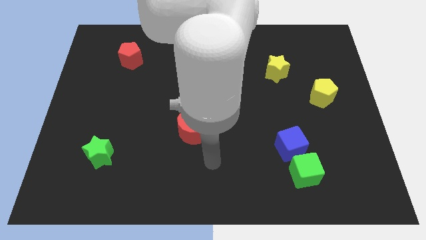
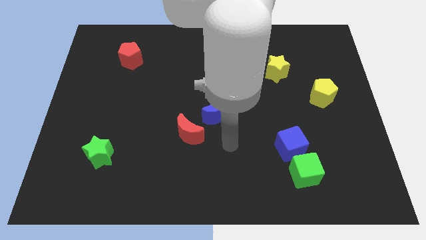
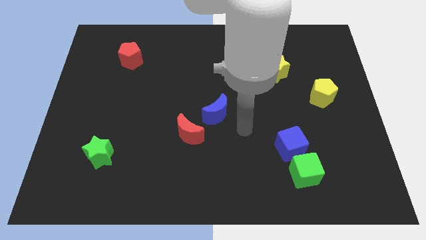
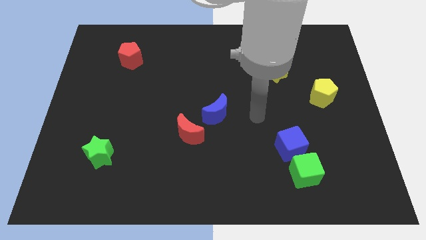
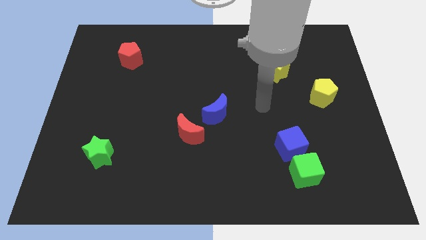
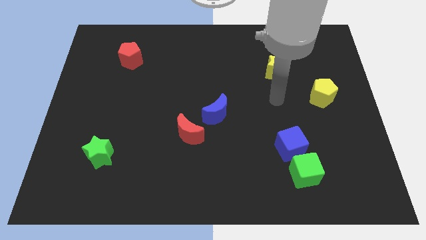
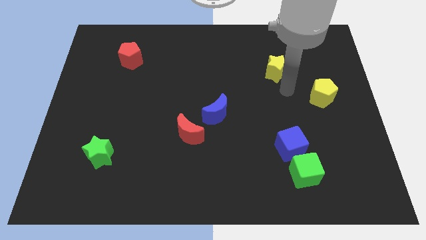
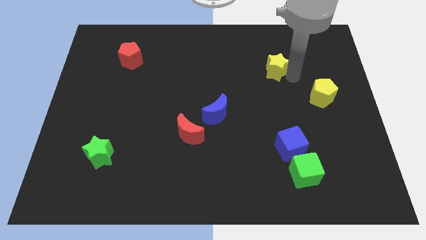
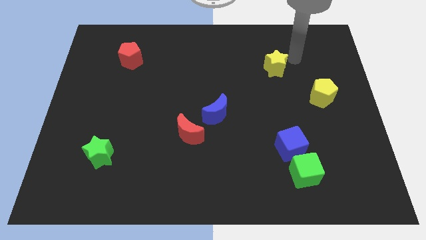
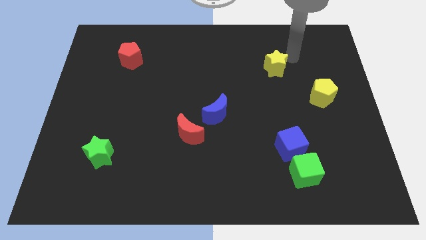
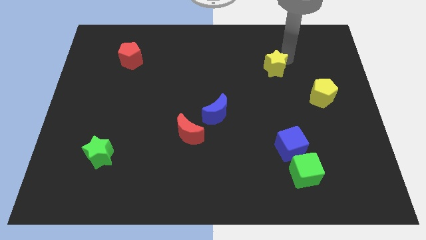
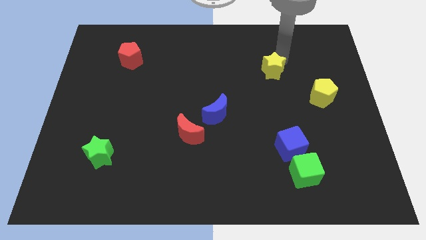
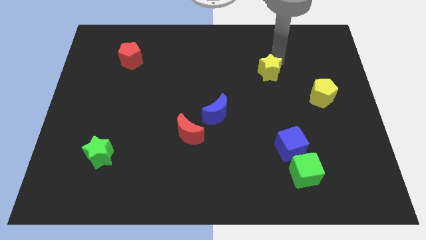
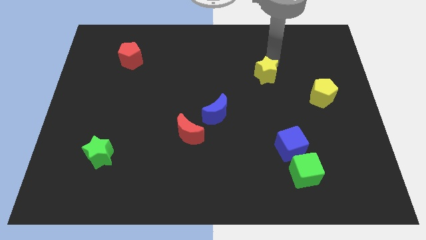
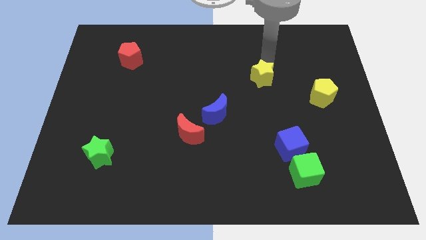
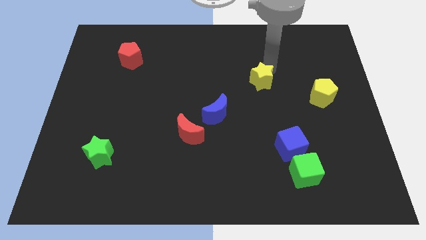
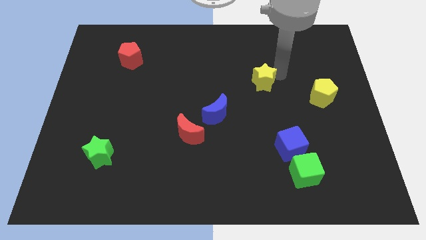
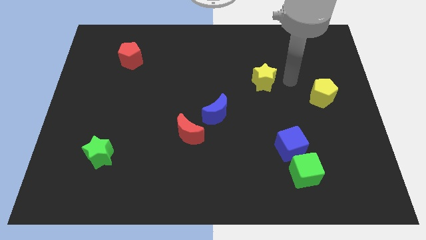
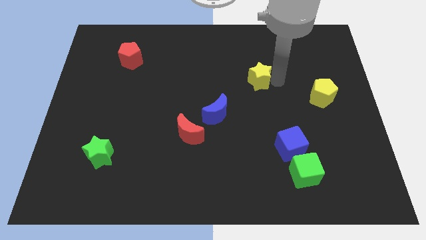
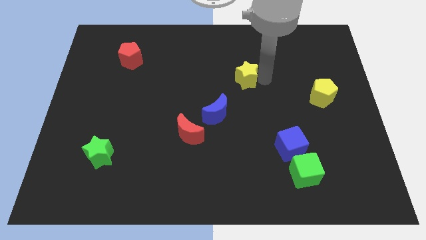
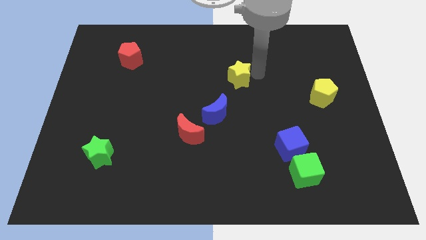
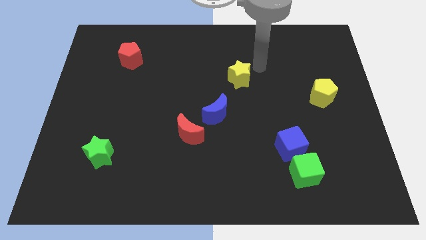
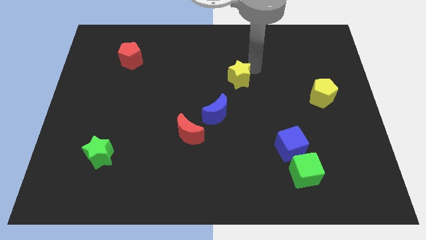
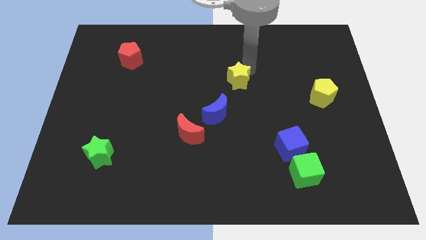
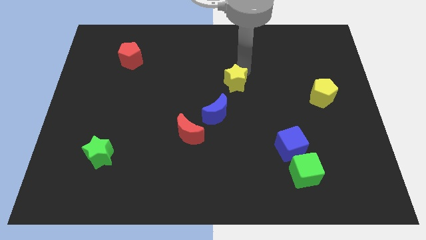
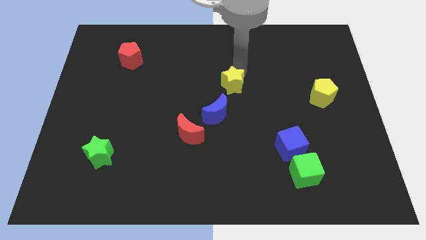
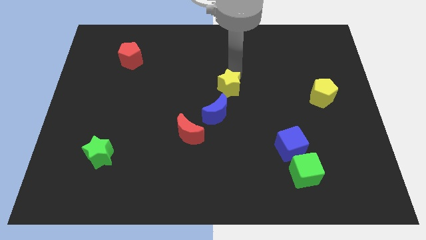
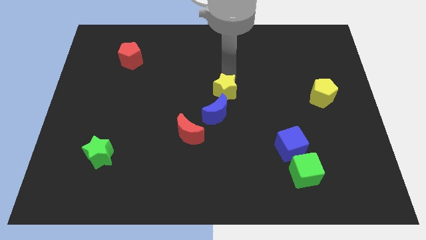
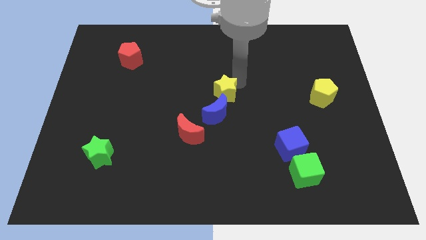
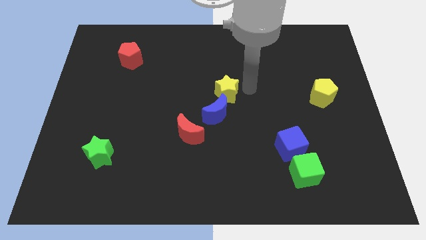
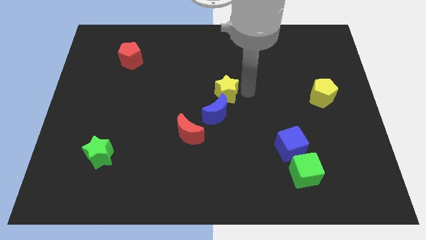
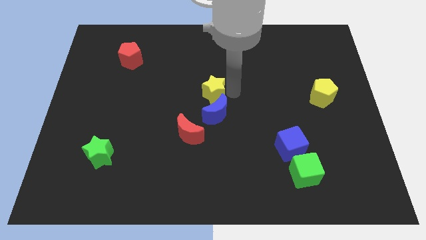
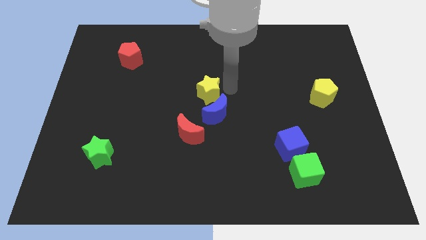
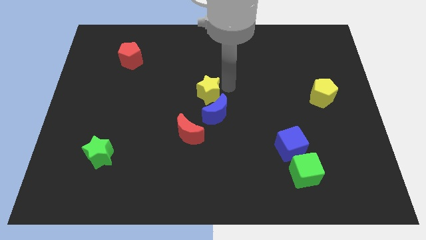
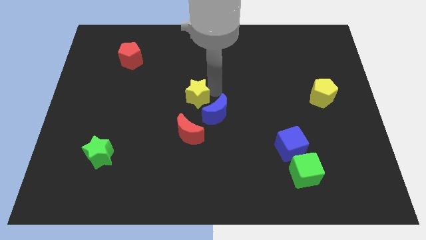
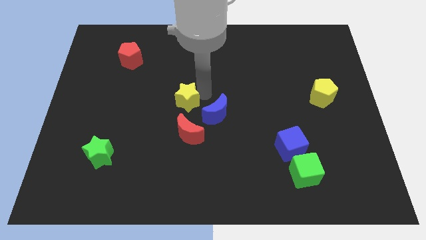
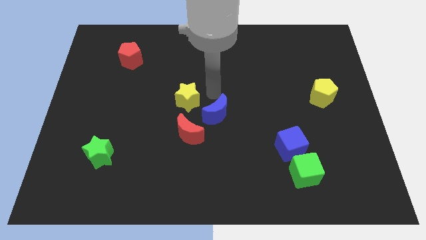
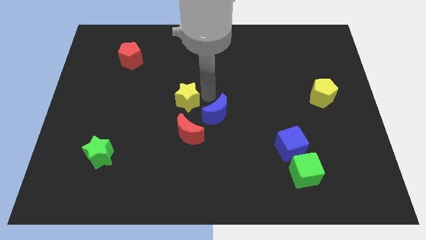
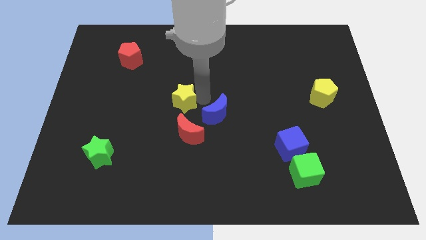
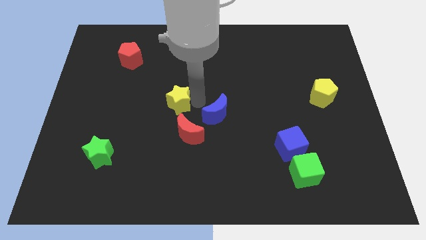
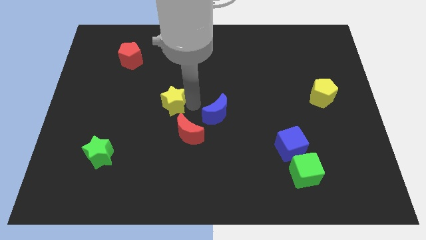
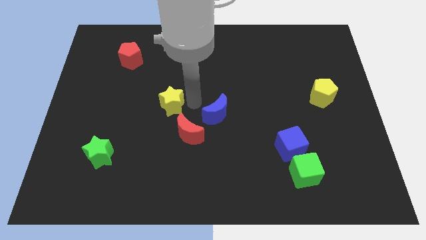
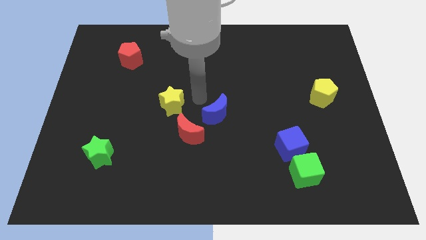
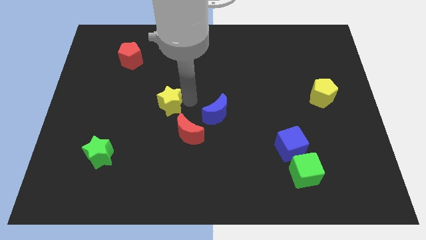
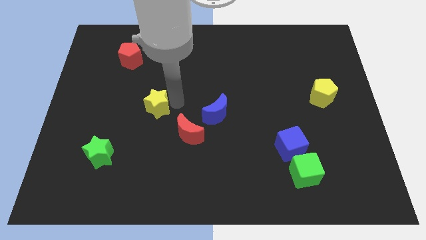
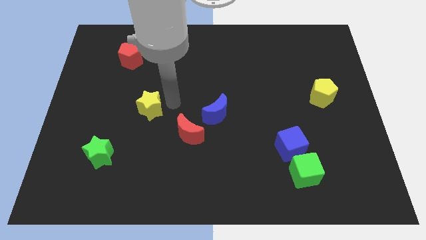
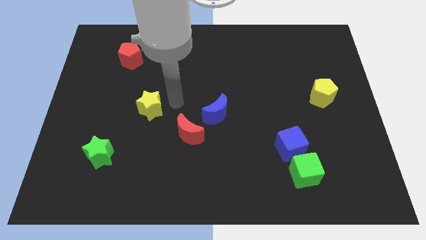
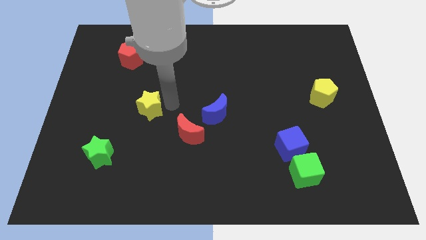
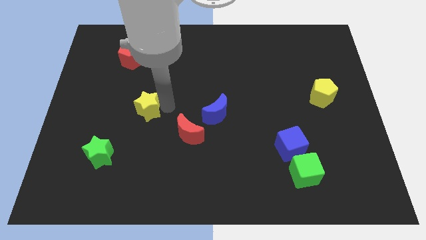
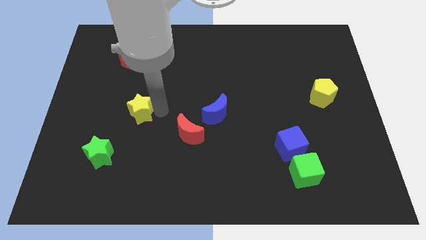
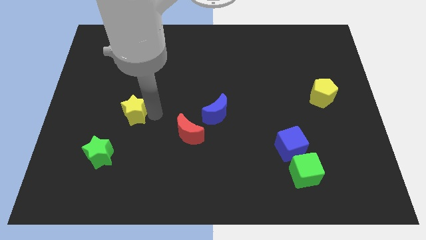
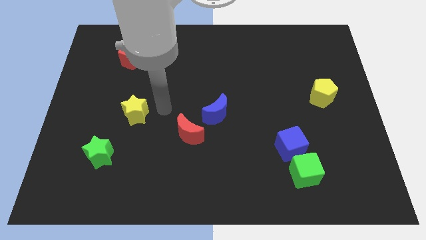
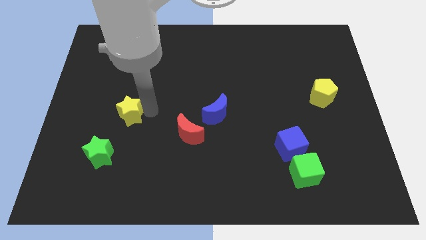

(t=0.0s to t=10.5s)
put the yellow star above the green star
